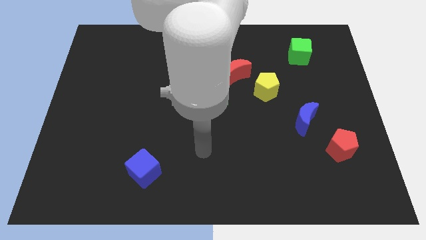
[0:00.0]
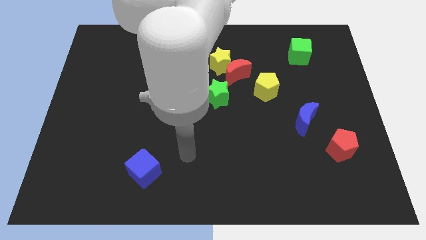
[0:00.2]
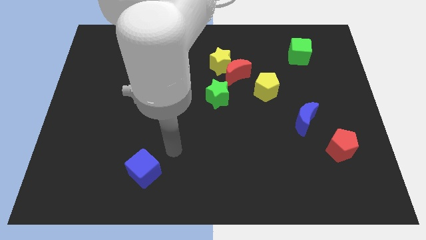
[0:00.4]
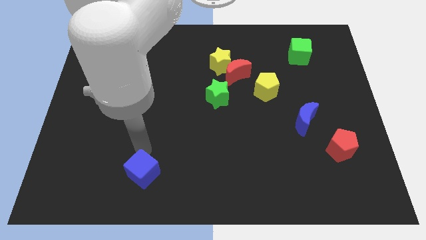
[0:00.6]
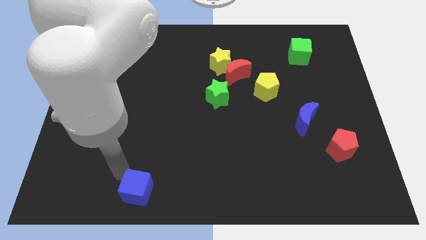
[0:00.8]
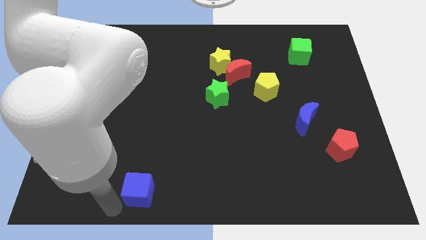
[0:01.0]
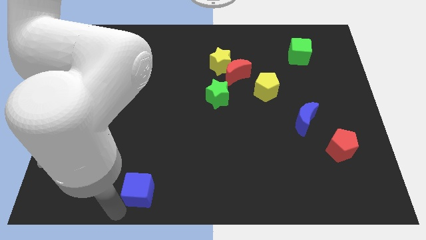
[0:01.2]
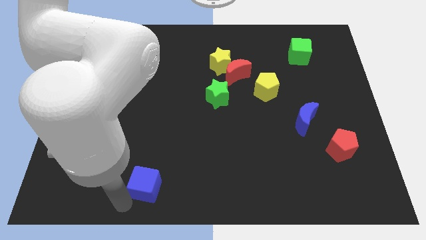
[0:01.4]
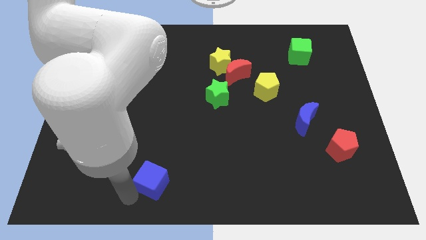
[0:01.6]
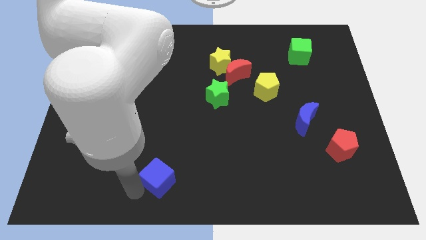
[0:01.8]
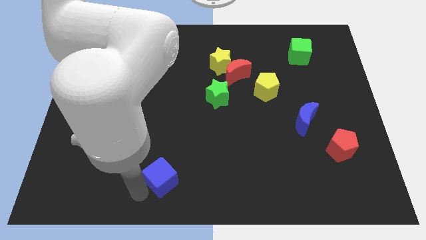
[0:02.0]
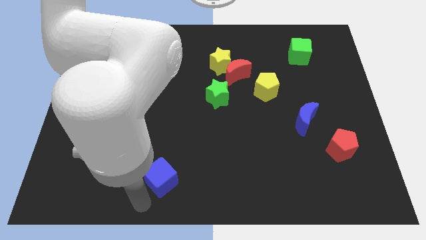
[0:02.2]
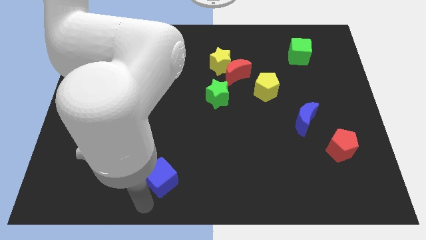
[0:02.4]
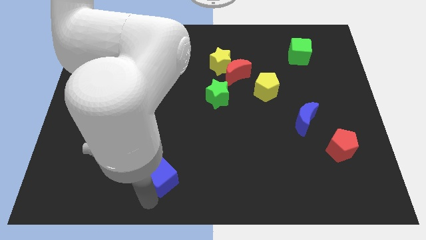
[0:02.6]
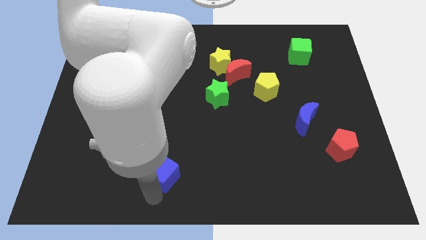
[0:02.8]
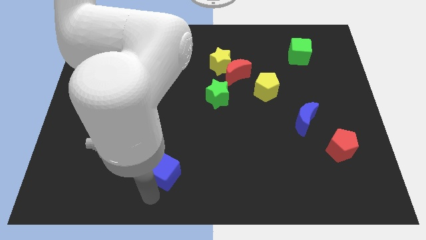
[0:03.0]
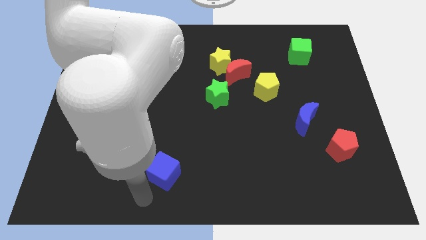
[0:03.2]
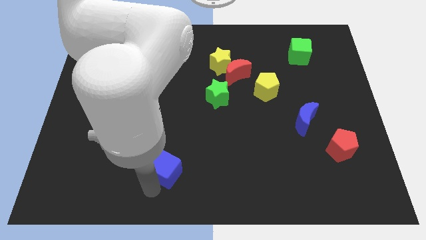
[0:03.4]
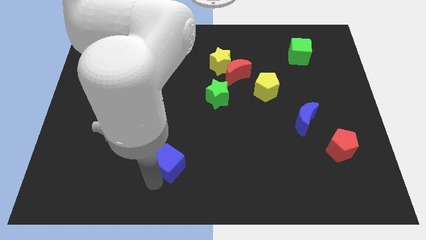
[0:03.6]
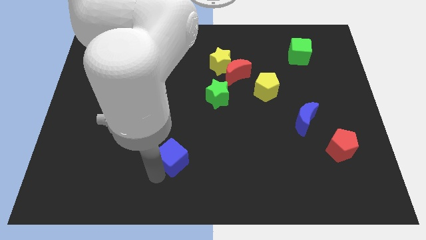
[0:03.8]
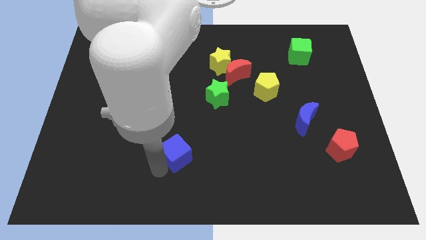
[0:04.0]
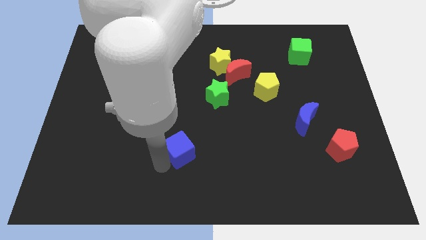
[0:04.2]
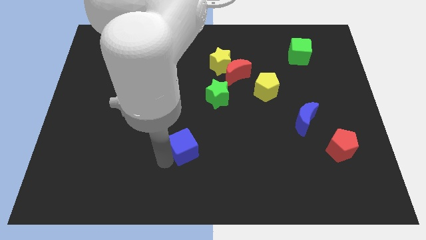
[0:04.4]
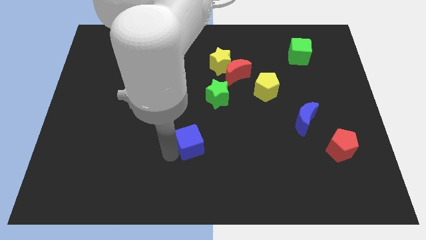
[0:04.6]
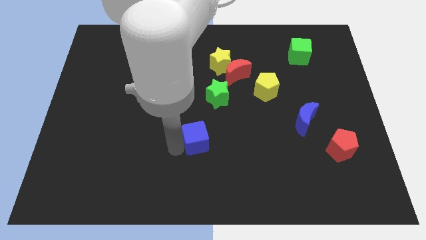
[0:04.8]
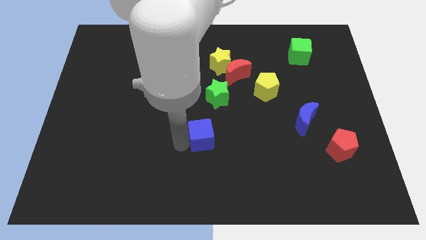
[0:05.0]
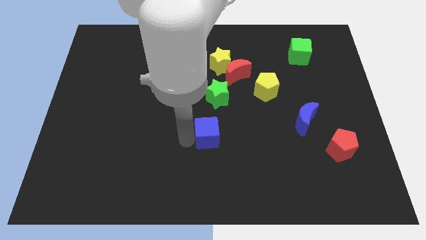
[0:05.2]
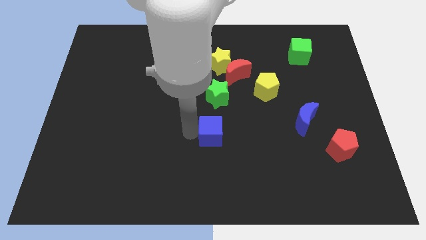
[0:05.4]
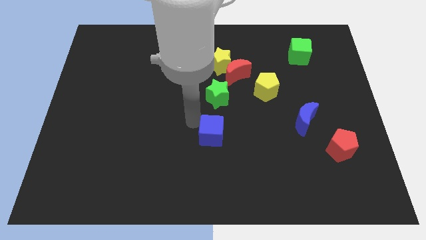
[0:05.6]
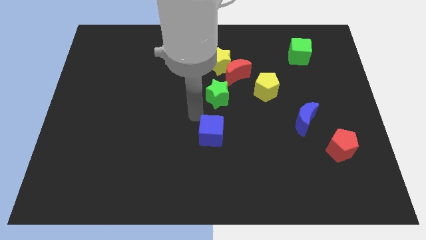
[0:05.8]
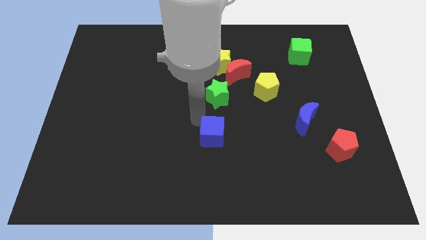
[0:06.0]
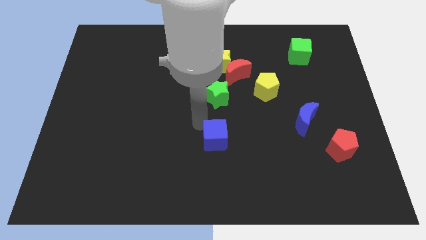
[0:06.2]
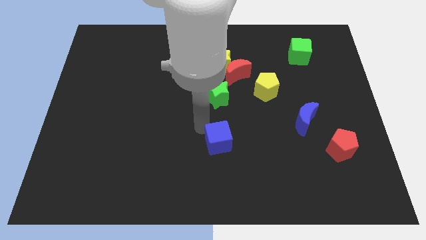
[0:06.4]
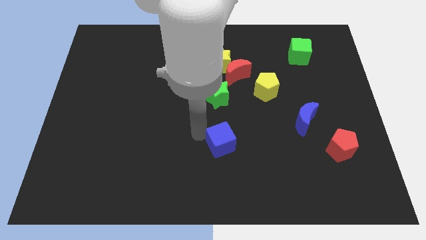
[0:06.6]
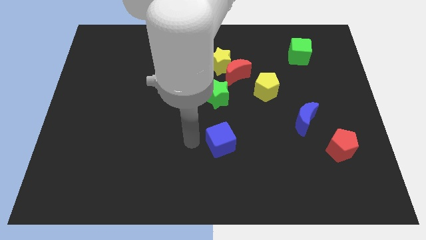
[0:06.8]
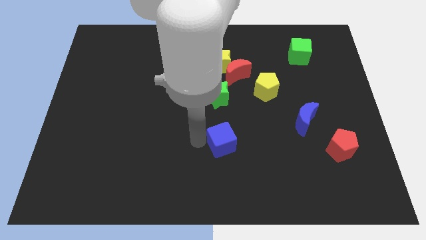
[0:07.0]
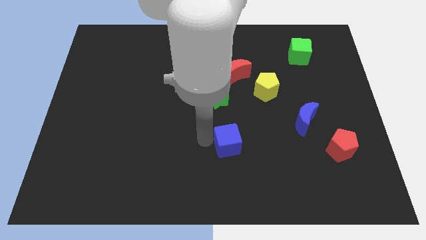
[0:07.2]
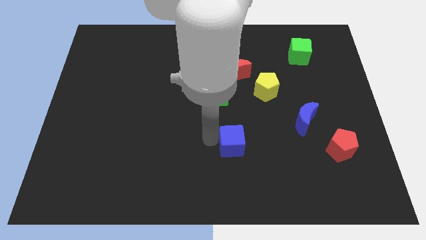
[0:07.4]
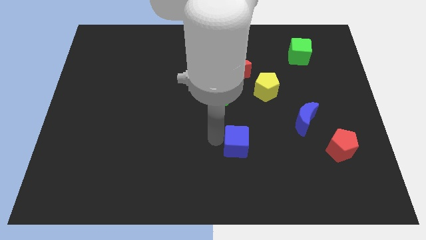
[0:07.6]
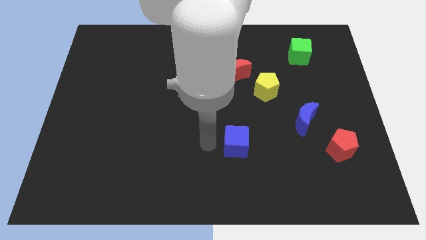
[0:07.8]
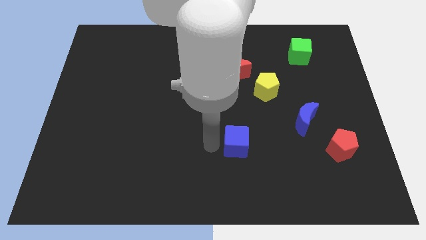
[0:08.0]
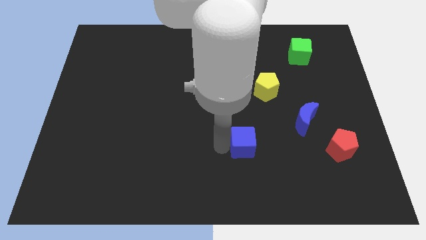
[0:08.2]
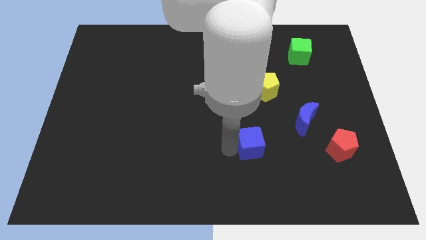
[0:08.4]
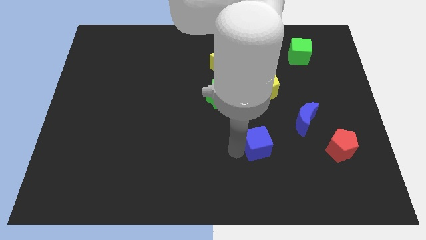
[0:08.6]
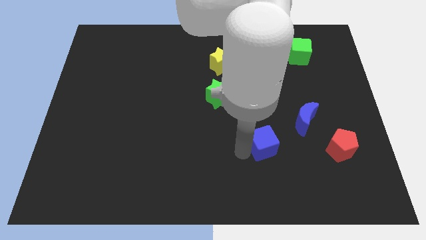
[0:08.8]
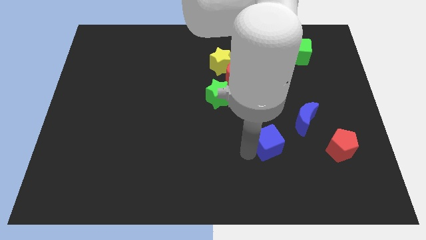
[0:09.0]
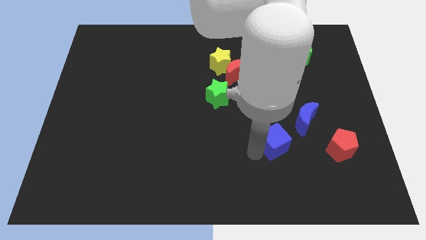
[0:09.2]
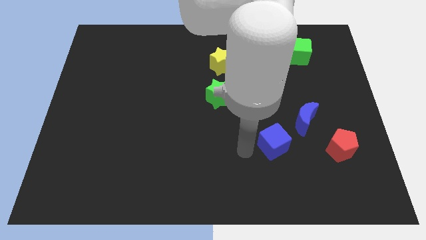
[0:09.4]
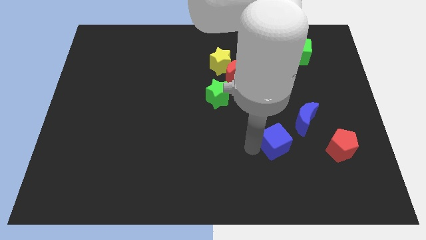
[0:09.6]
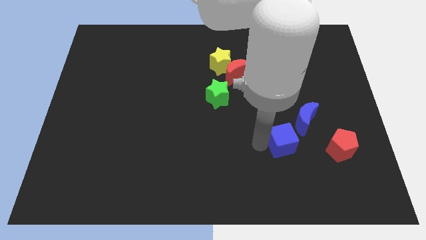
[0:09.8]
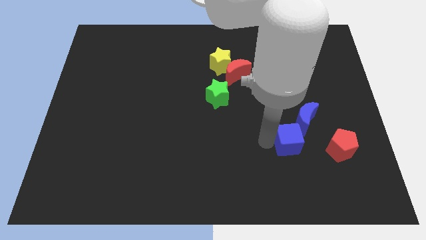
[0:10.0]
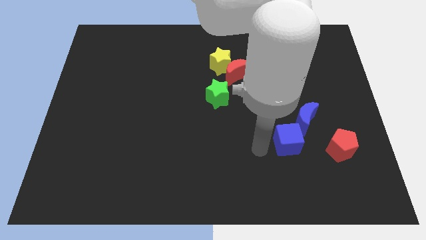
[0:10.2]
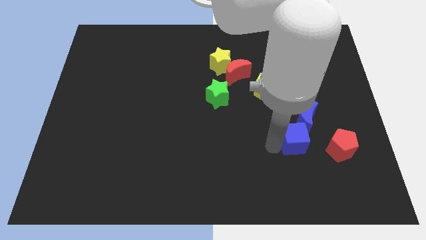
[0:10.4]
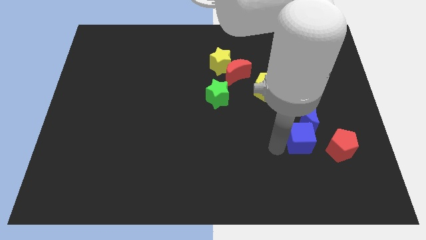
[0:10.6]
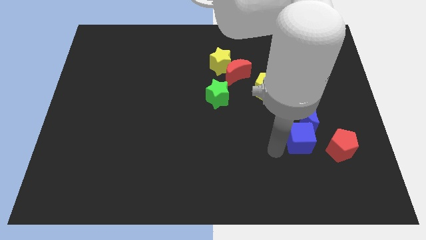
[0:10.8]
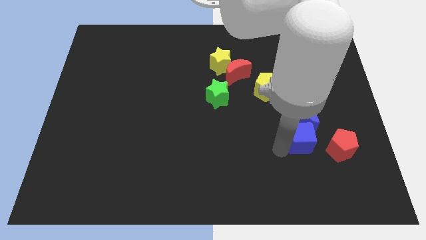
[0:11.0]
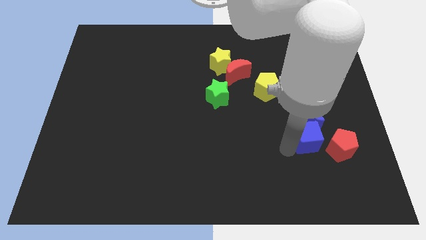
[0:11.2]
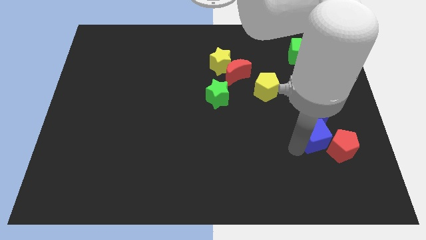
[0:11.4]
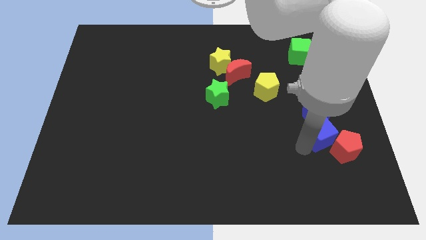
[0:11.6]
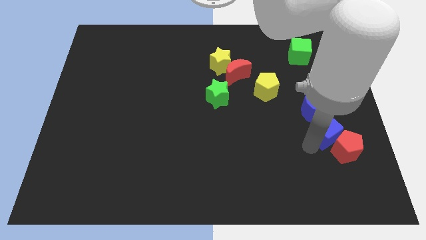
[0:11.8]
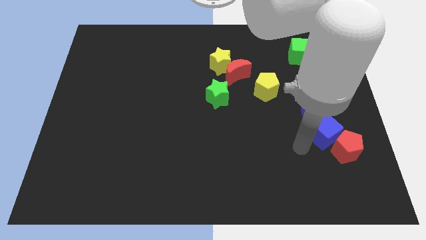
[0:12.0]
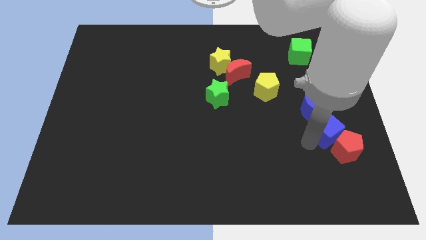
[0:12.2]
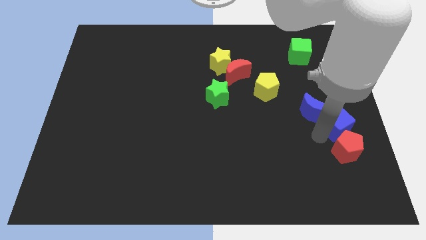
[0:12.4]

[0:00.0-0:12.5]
slide the blue cube to the right side of the board

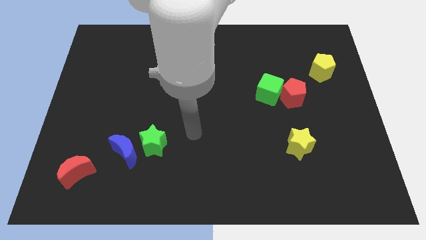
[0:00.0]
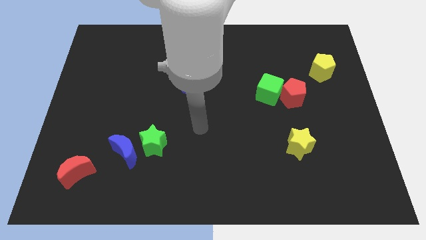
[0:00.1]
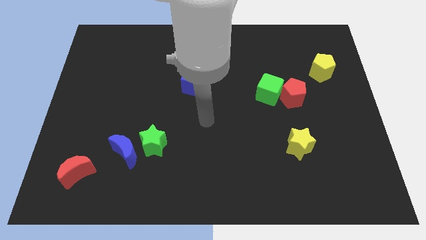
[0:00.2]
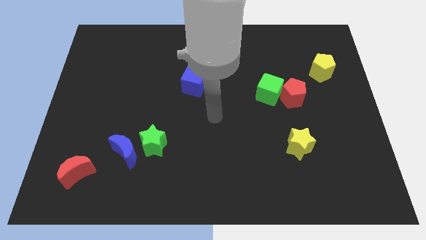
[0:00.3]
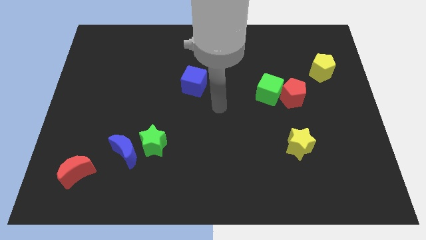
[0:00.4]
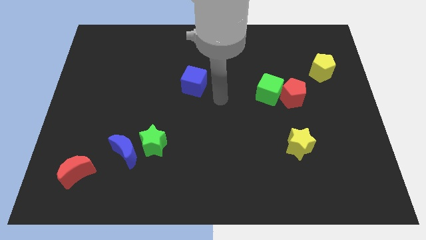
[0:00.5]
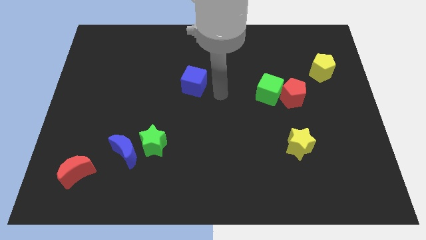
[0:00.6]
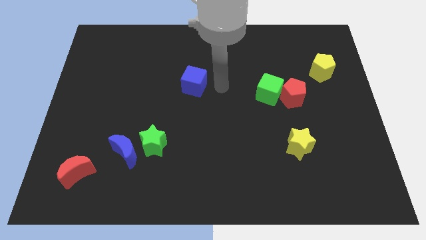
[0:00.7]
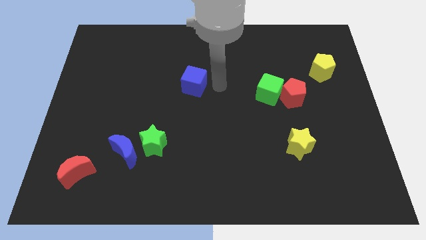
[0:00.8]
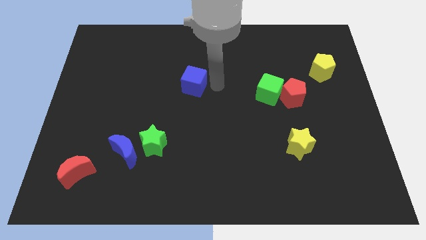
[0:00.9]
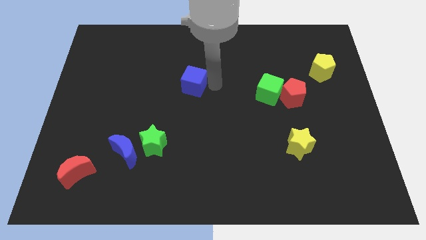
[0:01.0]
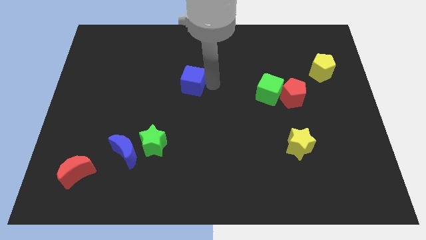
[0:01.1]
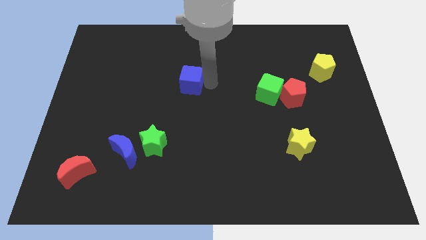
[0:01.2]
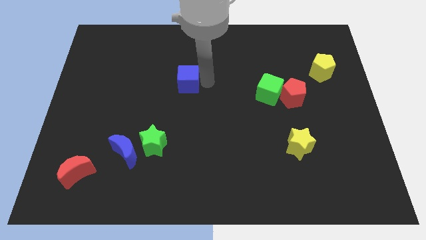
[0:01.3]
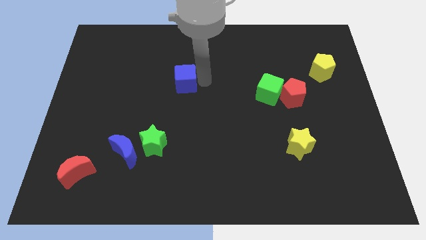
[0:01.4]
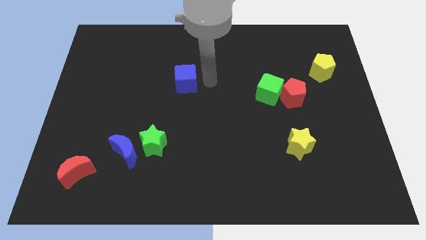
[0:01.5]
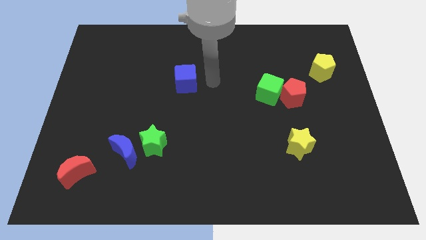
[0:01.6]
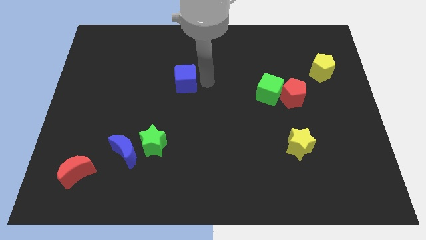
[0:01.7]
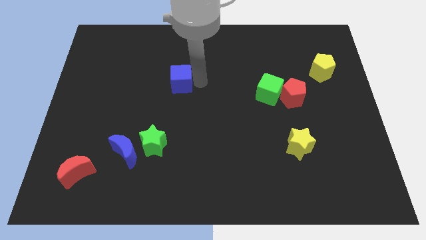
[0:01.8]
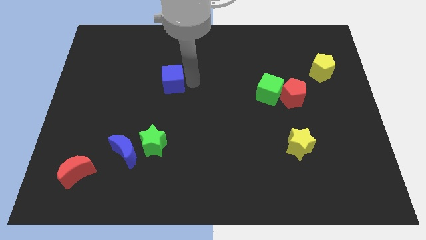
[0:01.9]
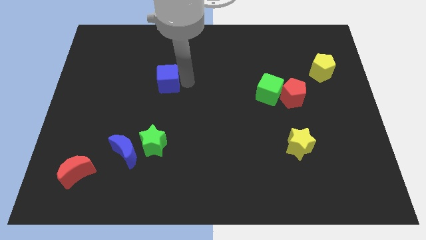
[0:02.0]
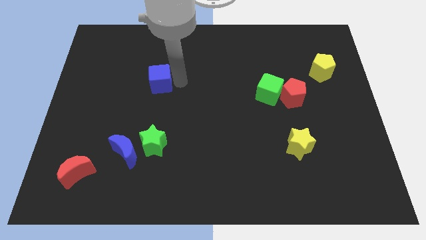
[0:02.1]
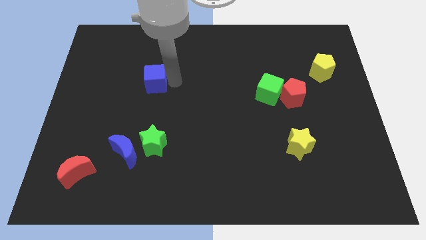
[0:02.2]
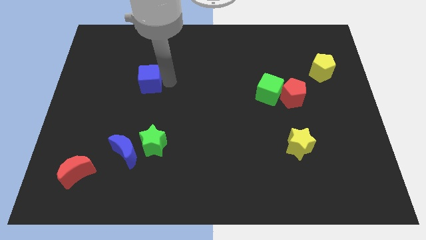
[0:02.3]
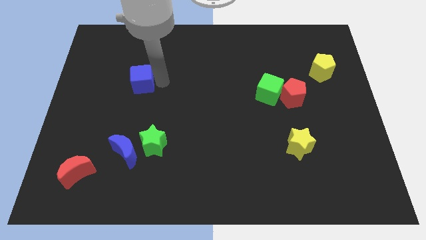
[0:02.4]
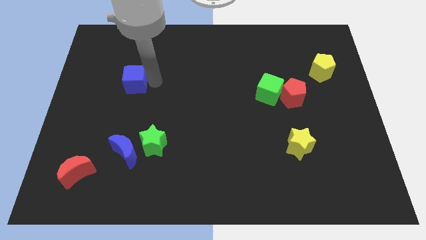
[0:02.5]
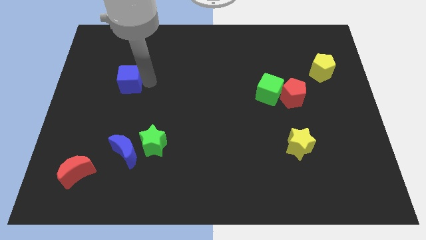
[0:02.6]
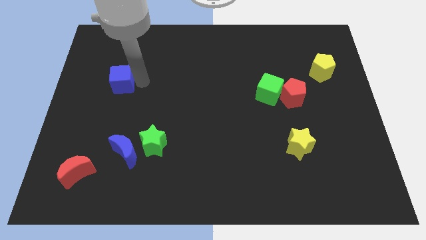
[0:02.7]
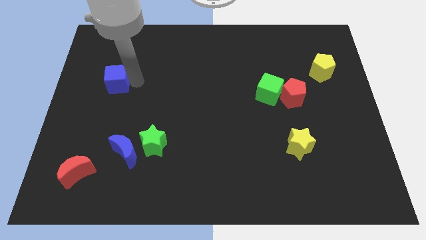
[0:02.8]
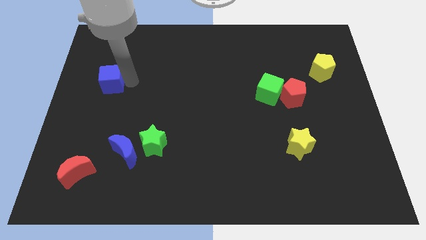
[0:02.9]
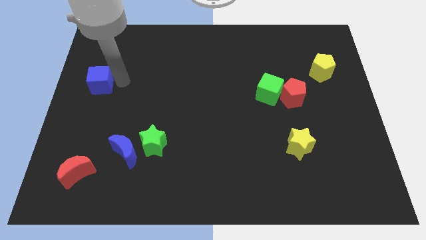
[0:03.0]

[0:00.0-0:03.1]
put the blue cube to the center left
